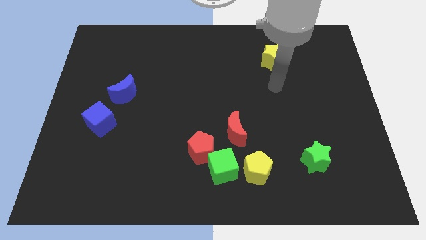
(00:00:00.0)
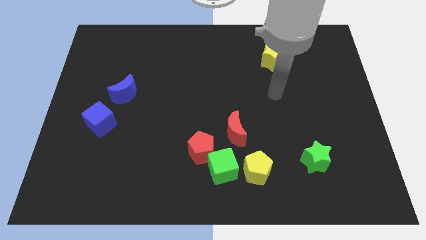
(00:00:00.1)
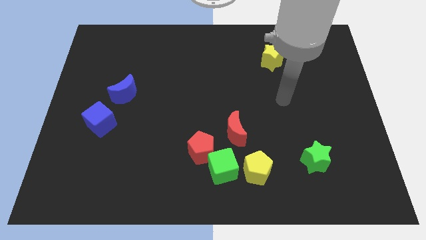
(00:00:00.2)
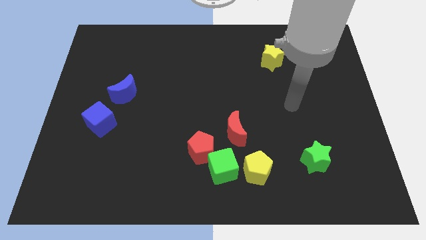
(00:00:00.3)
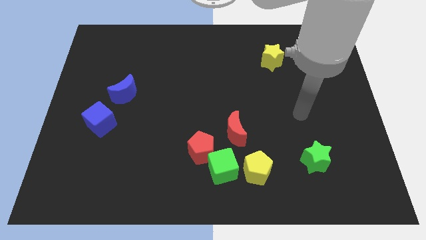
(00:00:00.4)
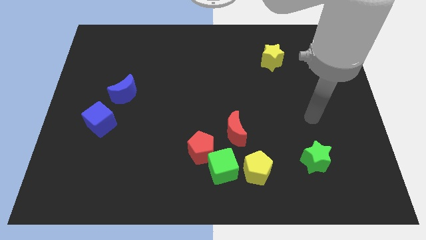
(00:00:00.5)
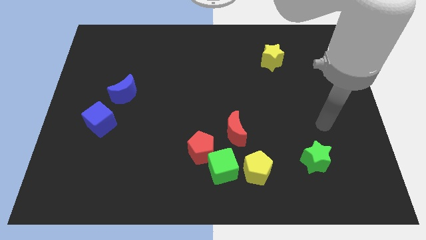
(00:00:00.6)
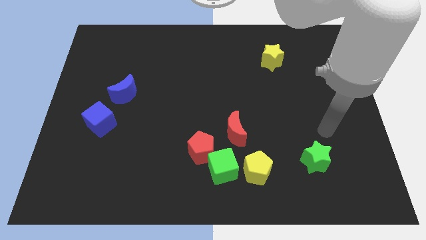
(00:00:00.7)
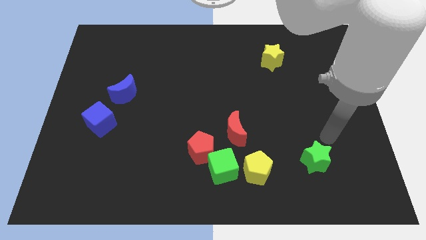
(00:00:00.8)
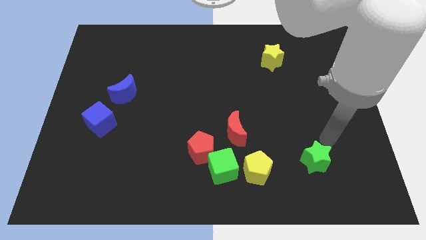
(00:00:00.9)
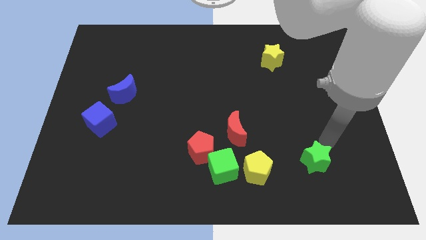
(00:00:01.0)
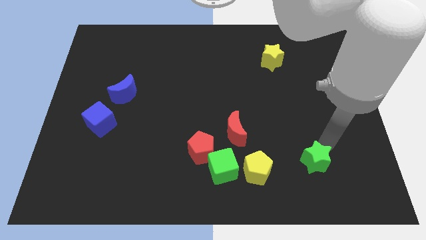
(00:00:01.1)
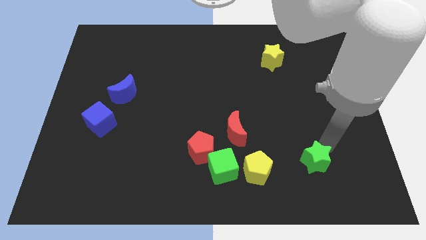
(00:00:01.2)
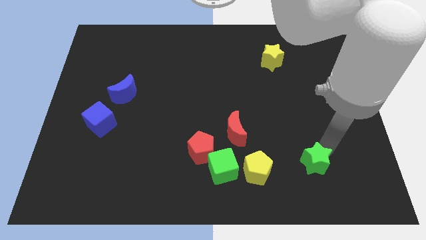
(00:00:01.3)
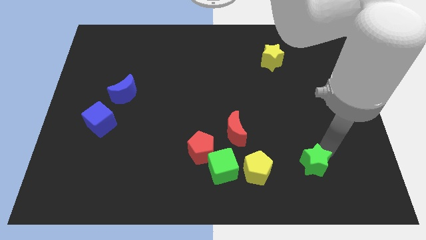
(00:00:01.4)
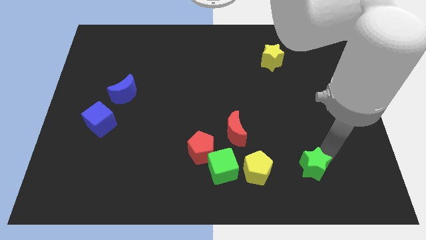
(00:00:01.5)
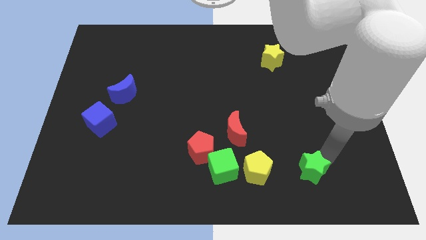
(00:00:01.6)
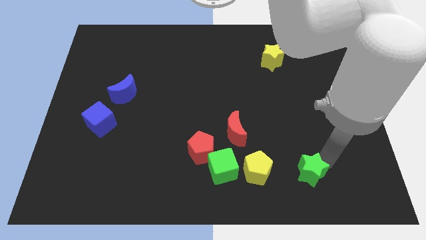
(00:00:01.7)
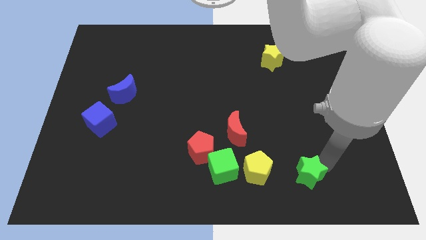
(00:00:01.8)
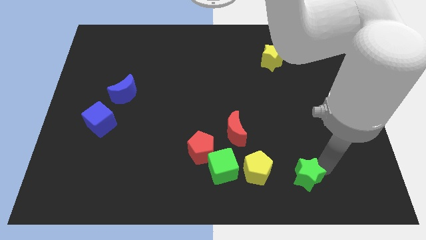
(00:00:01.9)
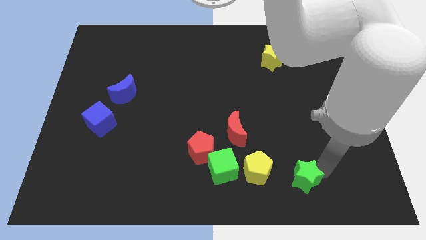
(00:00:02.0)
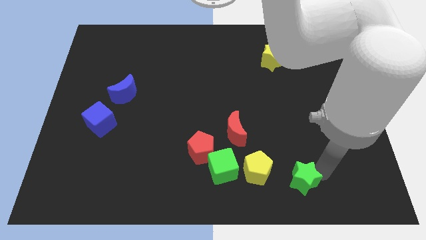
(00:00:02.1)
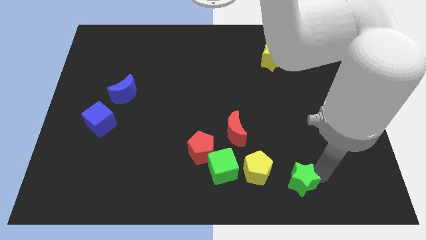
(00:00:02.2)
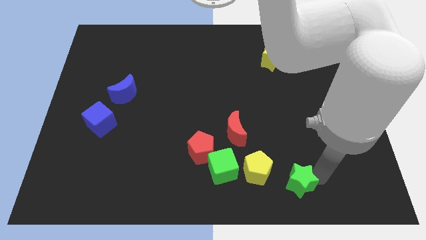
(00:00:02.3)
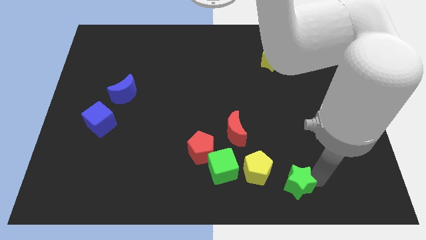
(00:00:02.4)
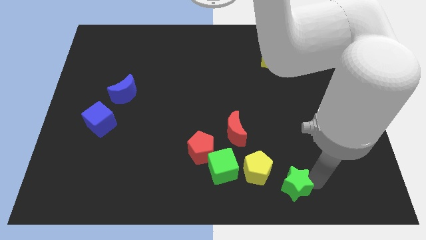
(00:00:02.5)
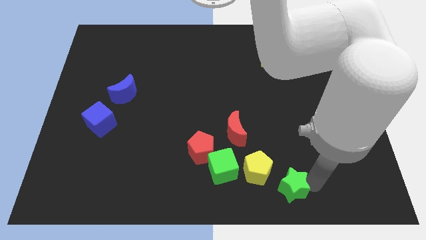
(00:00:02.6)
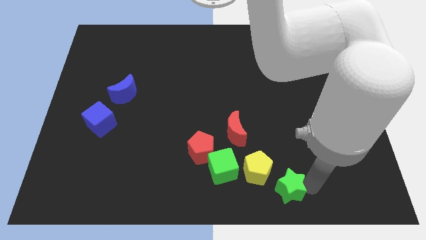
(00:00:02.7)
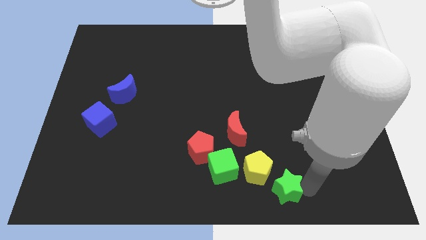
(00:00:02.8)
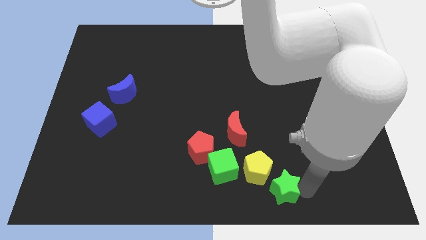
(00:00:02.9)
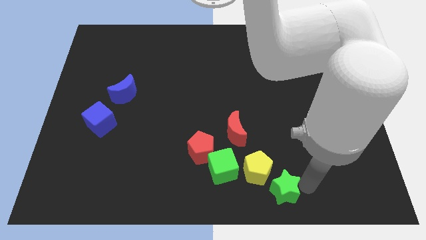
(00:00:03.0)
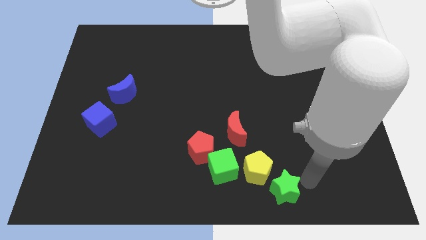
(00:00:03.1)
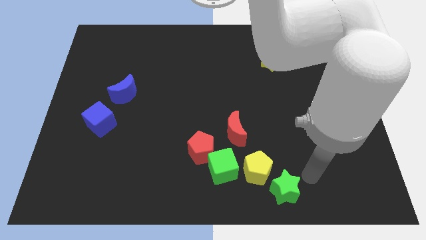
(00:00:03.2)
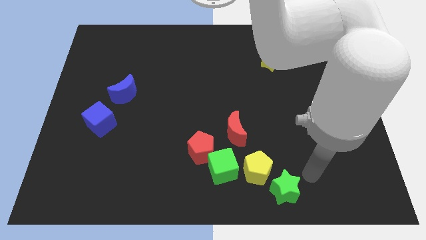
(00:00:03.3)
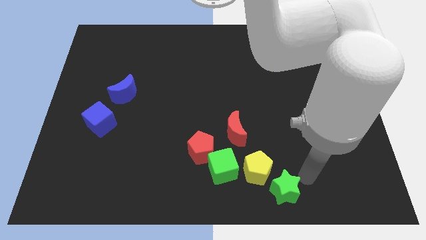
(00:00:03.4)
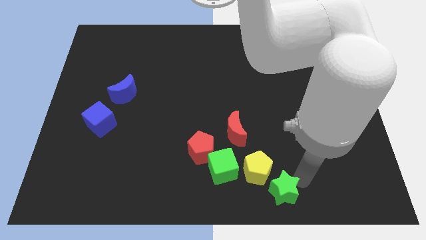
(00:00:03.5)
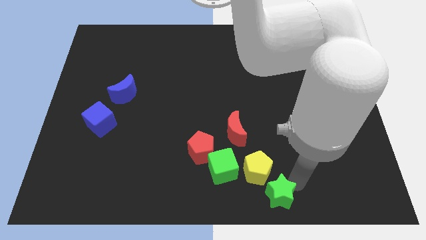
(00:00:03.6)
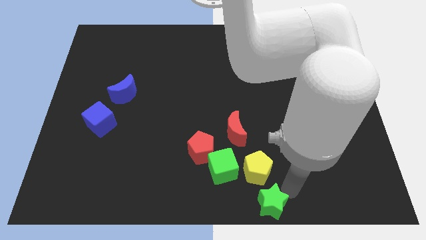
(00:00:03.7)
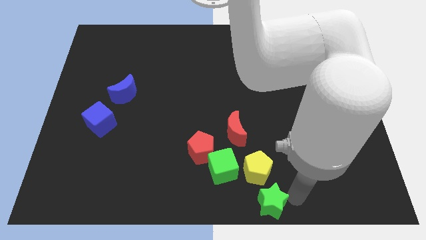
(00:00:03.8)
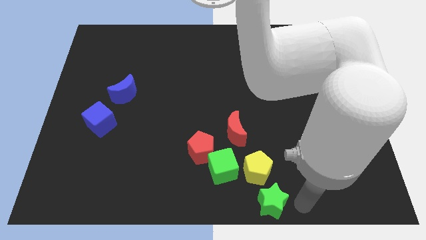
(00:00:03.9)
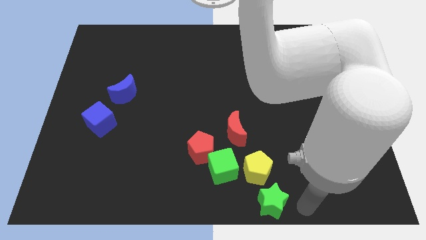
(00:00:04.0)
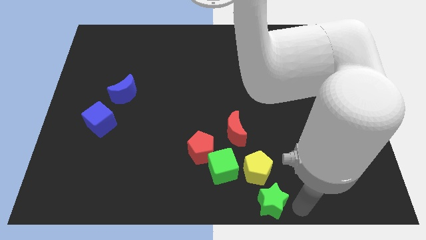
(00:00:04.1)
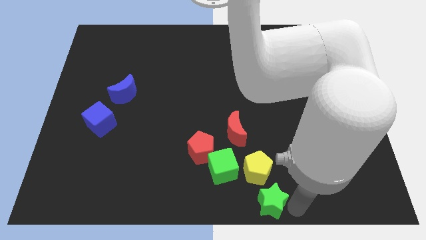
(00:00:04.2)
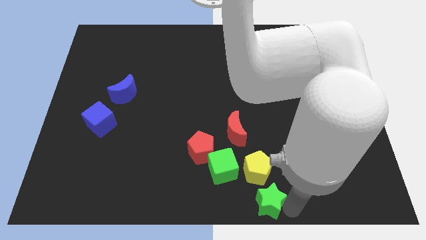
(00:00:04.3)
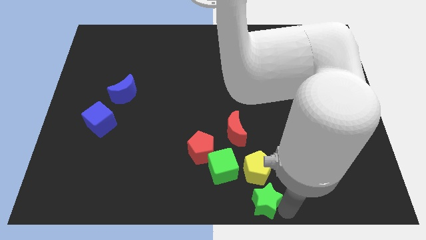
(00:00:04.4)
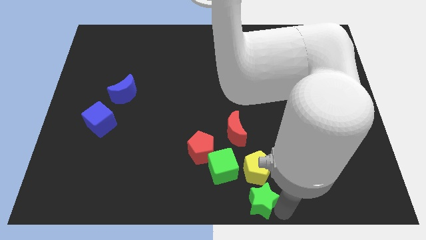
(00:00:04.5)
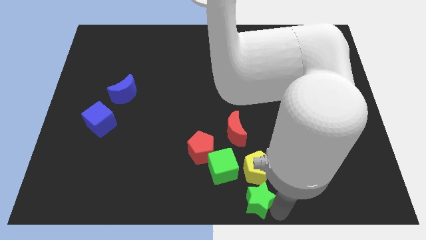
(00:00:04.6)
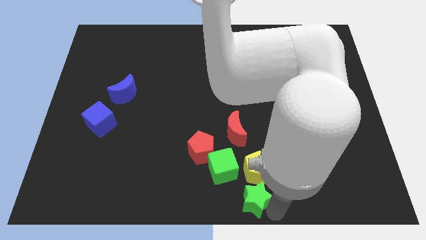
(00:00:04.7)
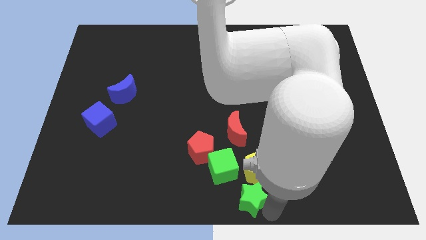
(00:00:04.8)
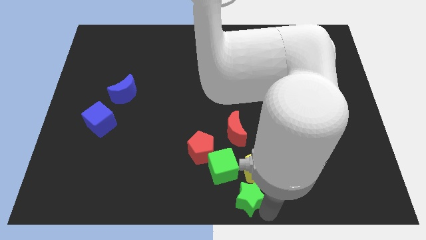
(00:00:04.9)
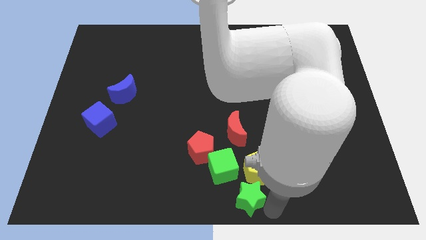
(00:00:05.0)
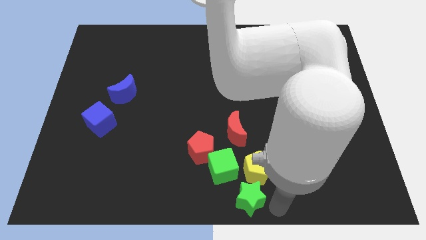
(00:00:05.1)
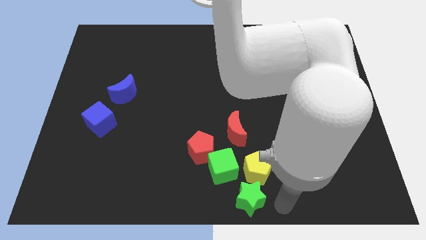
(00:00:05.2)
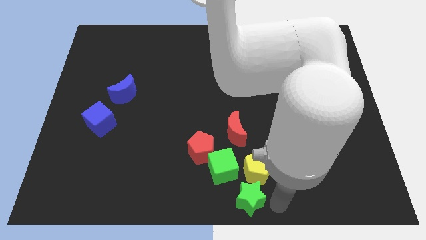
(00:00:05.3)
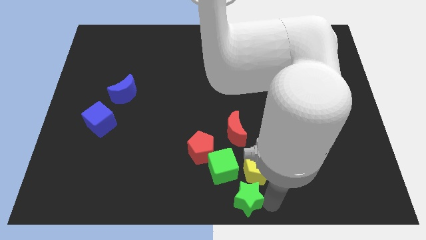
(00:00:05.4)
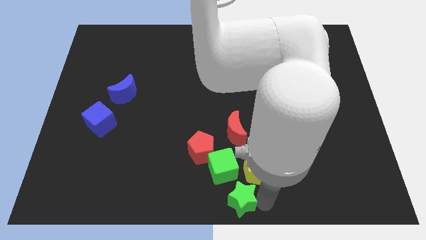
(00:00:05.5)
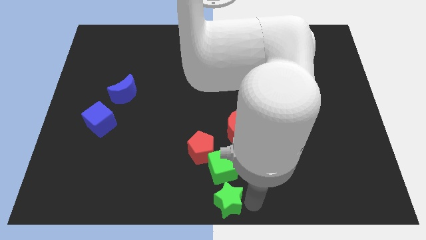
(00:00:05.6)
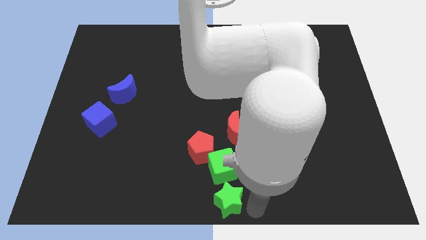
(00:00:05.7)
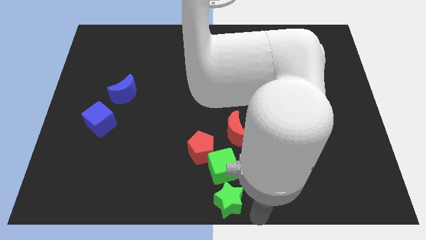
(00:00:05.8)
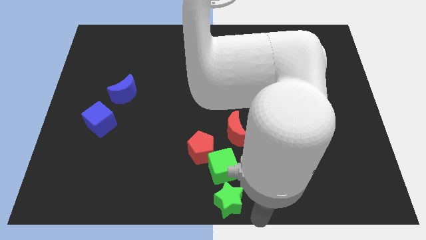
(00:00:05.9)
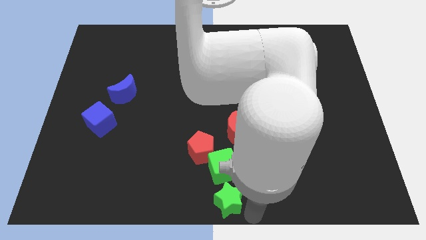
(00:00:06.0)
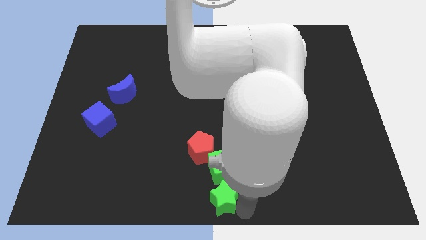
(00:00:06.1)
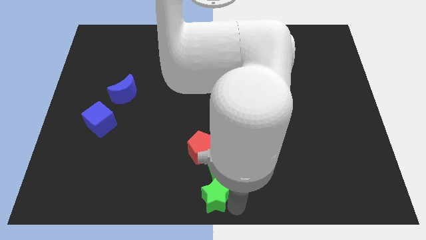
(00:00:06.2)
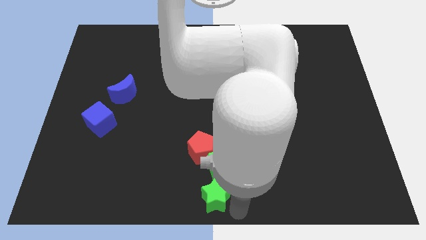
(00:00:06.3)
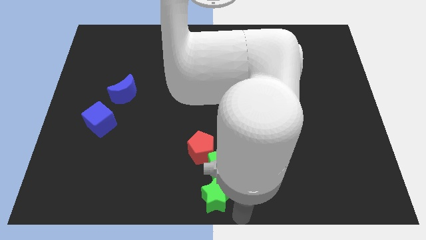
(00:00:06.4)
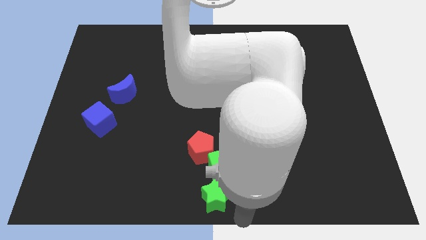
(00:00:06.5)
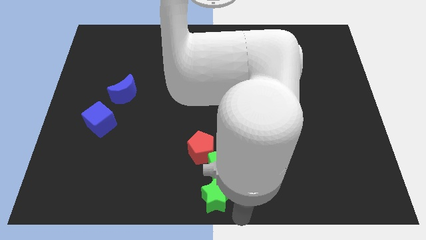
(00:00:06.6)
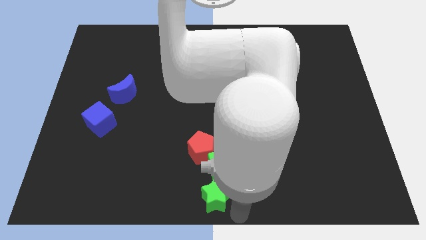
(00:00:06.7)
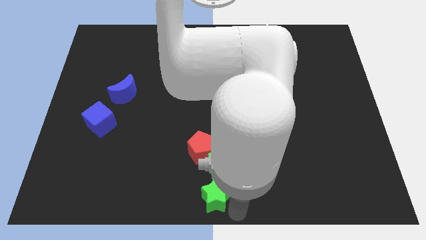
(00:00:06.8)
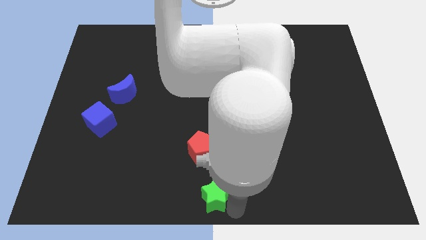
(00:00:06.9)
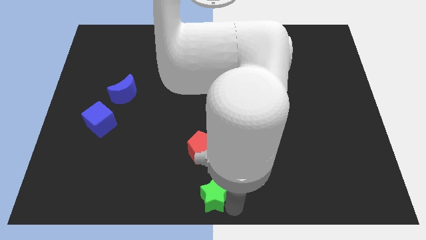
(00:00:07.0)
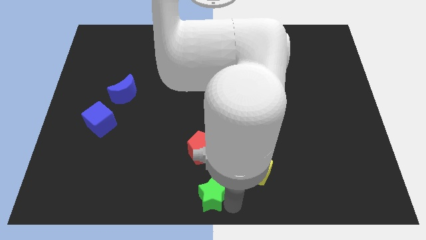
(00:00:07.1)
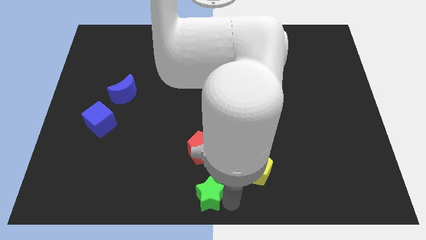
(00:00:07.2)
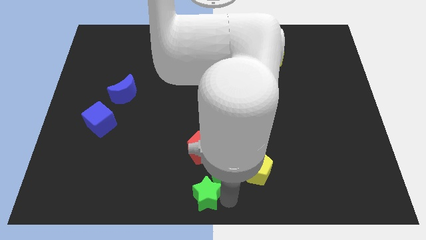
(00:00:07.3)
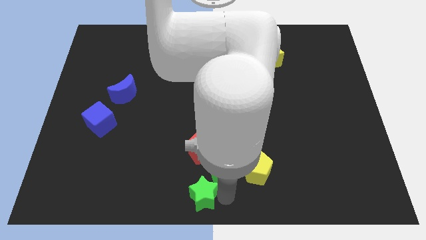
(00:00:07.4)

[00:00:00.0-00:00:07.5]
slide the green star left

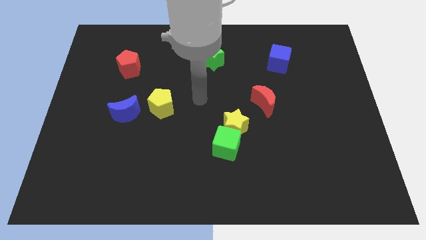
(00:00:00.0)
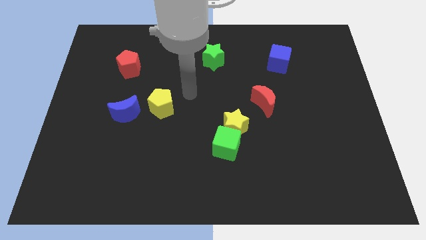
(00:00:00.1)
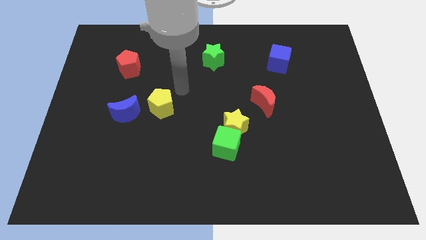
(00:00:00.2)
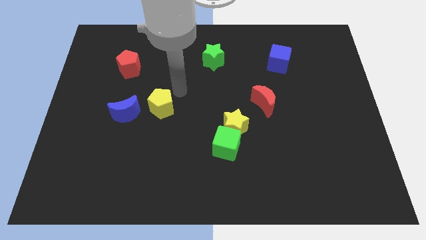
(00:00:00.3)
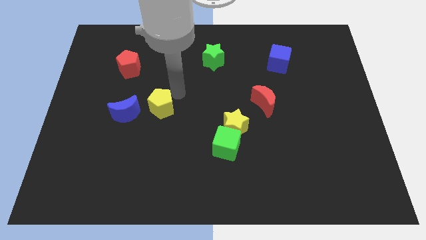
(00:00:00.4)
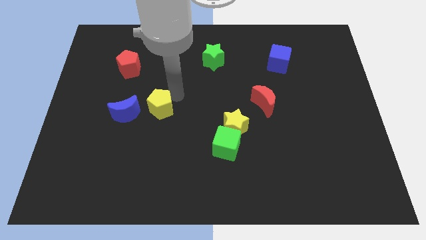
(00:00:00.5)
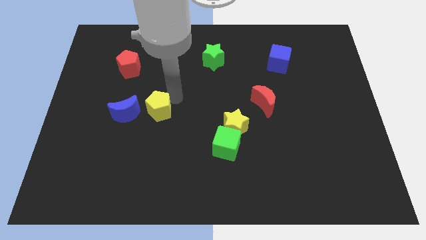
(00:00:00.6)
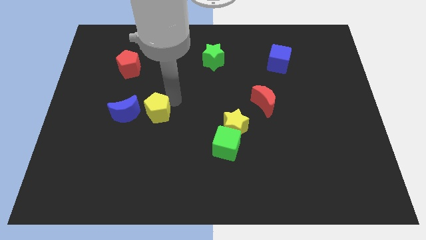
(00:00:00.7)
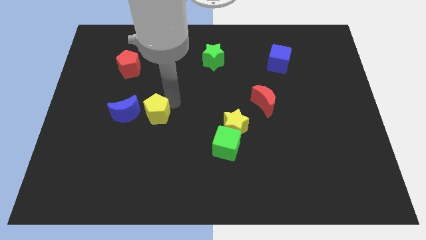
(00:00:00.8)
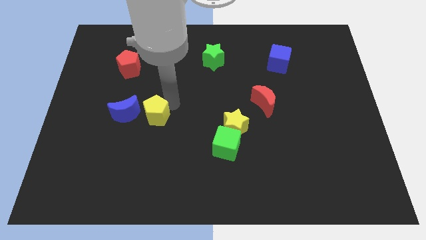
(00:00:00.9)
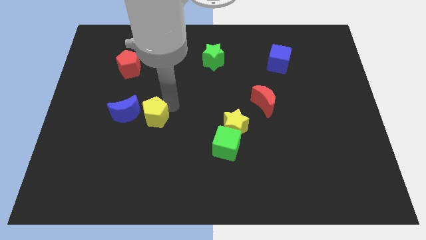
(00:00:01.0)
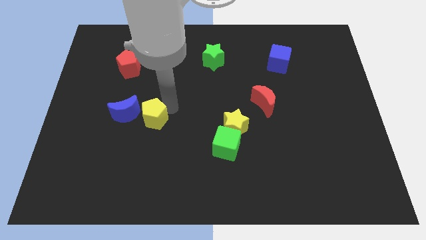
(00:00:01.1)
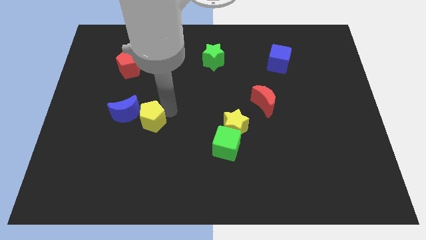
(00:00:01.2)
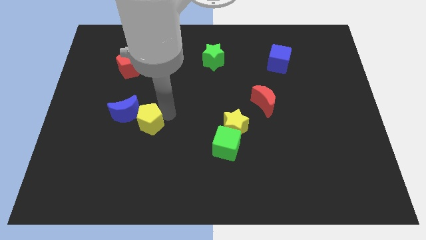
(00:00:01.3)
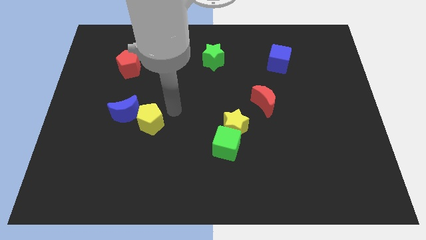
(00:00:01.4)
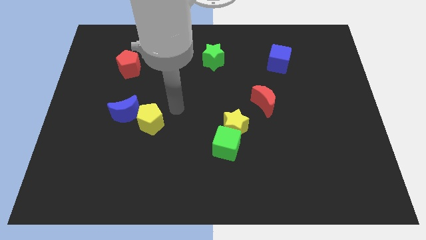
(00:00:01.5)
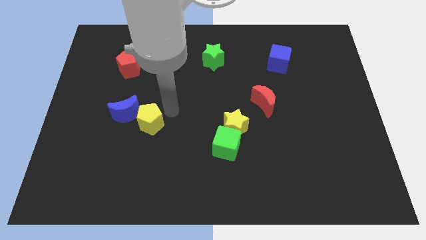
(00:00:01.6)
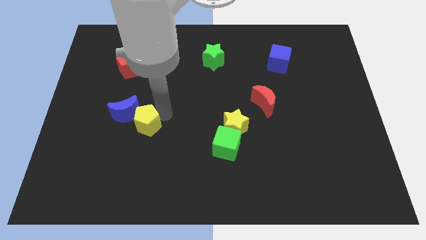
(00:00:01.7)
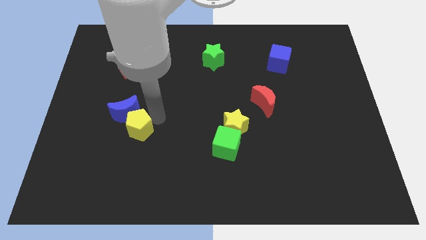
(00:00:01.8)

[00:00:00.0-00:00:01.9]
move the yellow pentagon down and then left slightly
